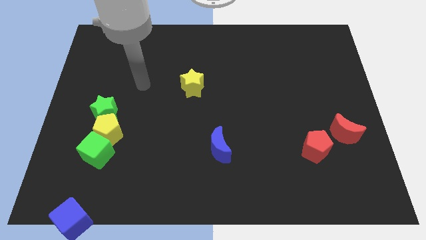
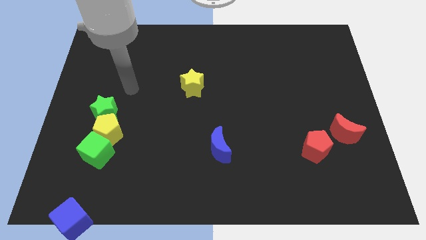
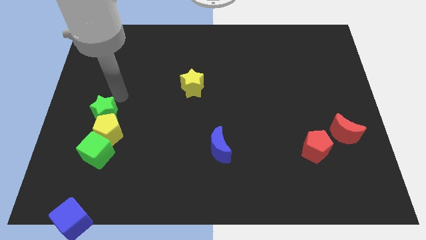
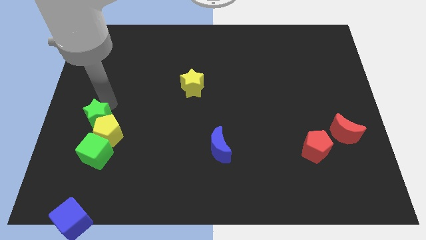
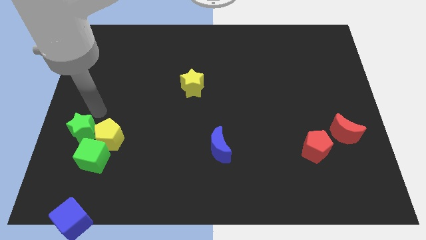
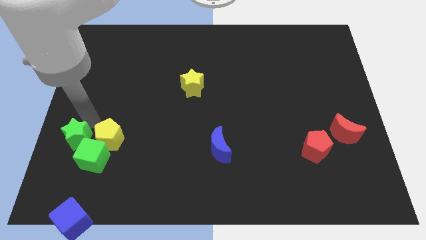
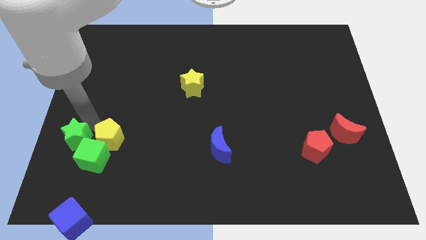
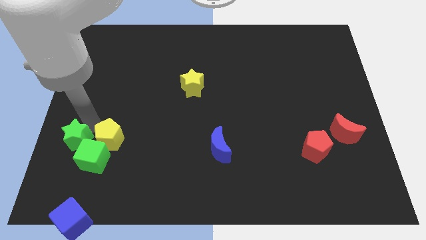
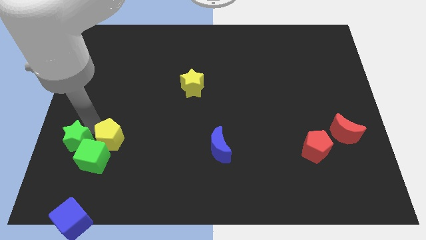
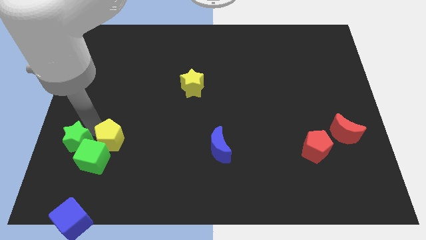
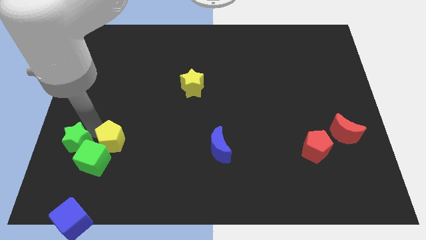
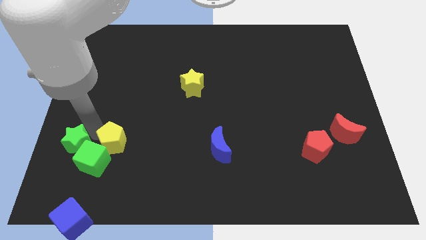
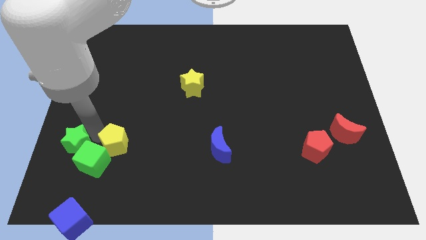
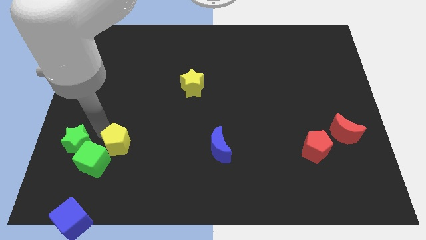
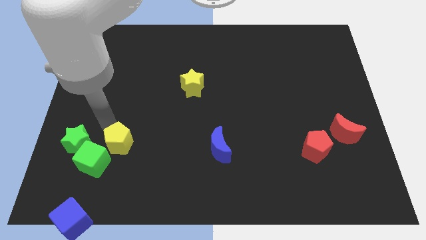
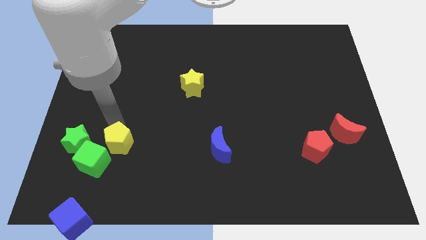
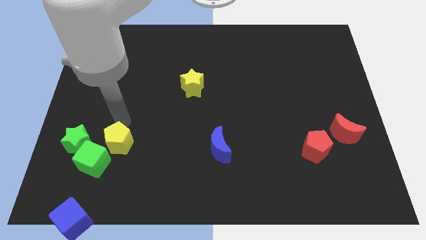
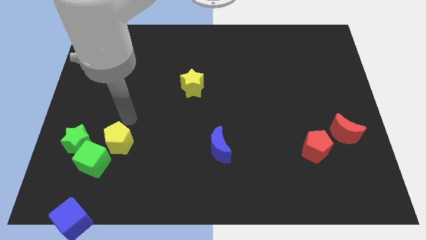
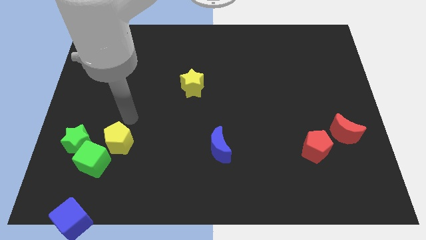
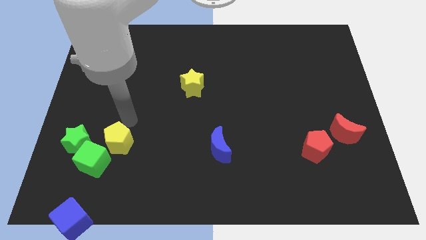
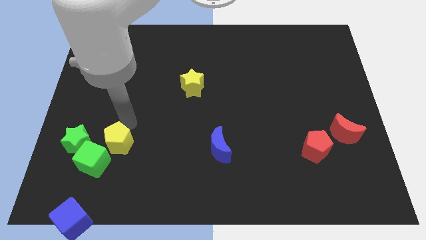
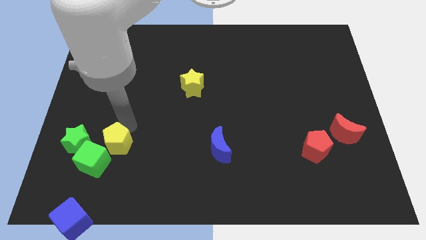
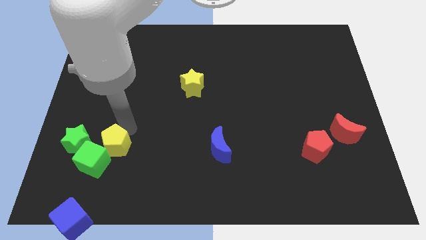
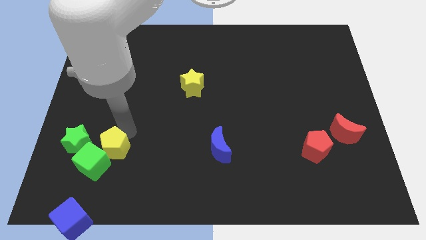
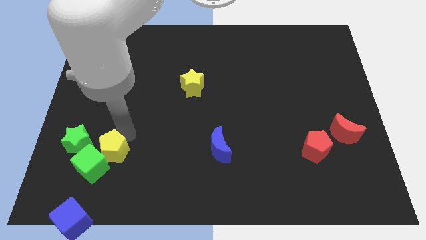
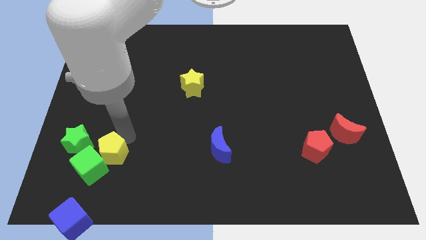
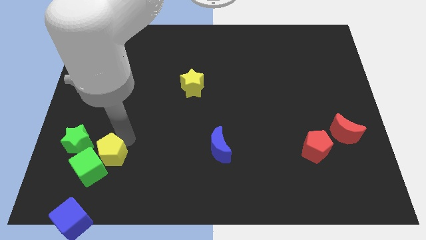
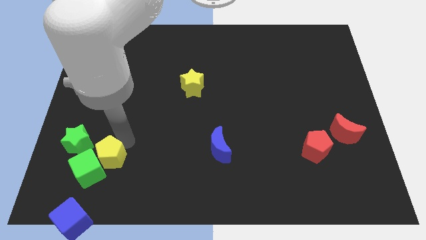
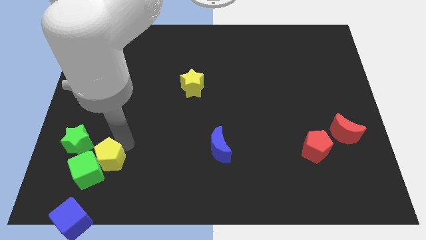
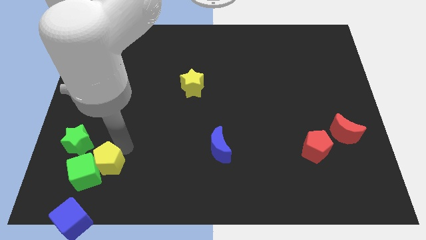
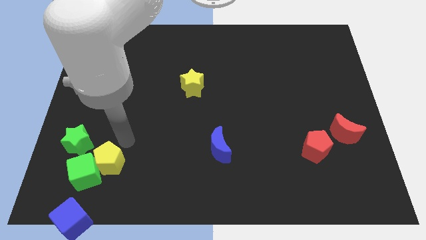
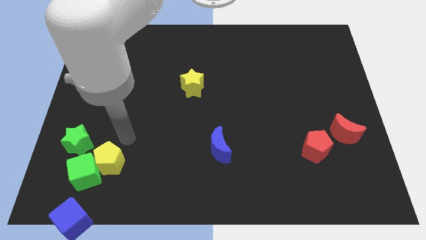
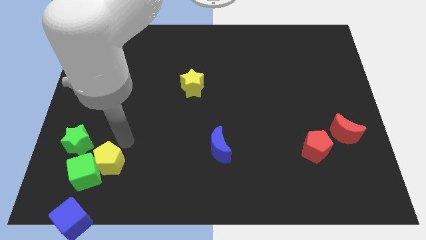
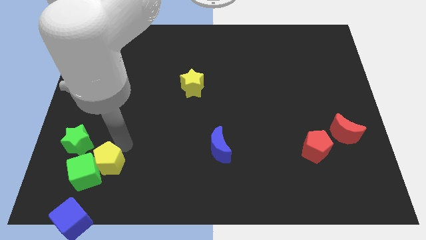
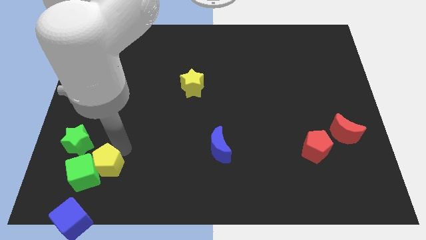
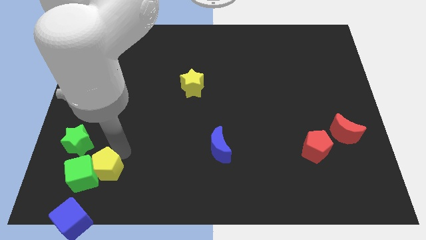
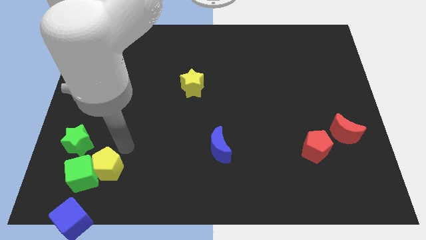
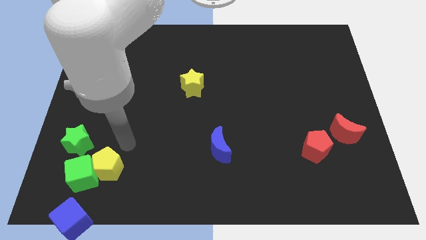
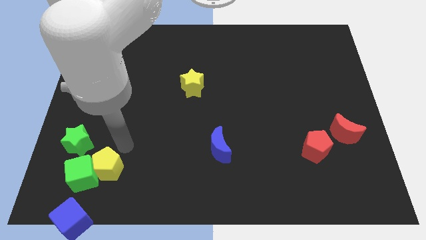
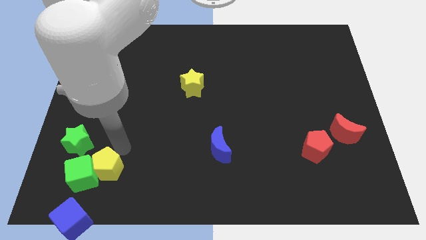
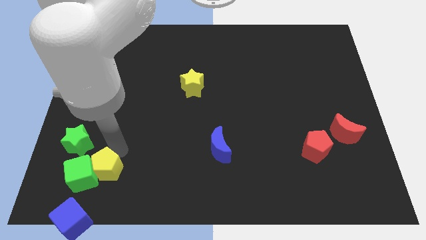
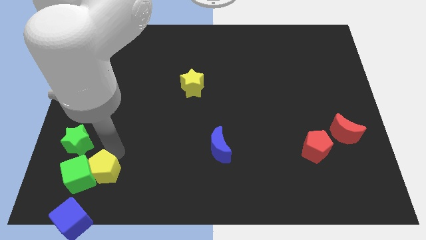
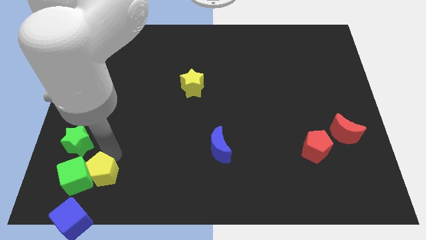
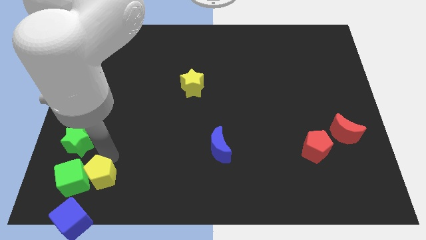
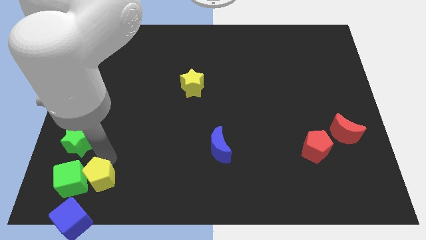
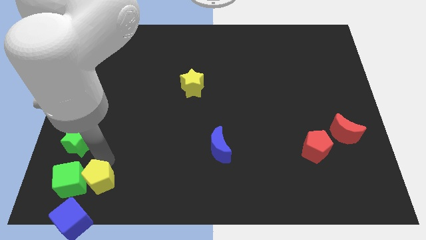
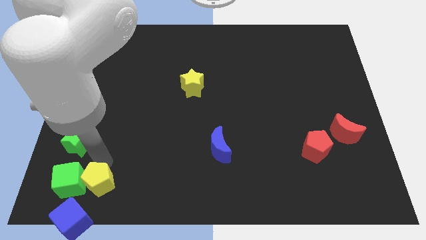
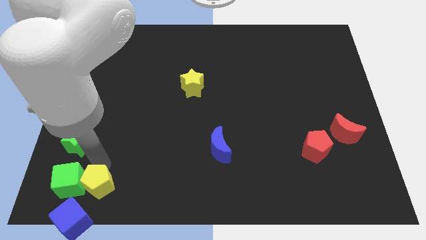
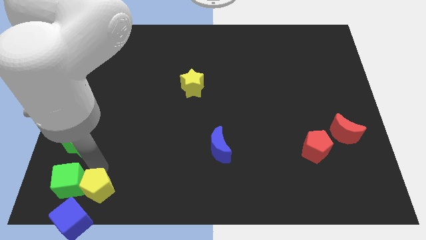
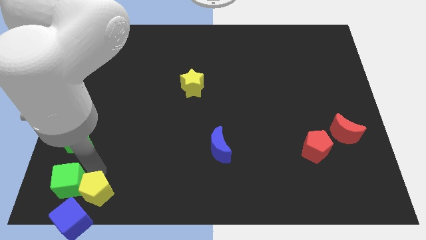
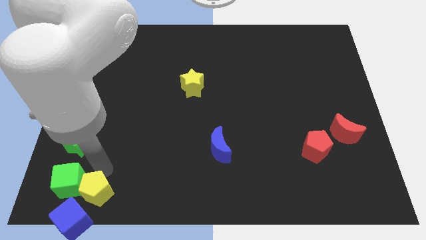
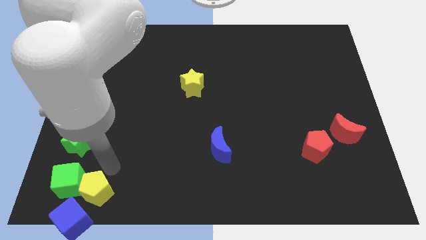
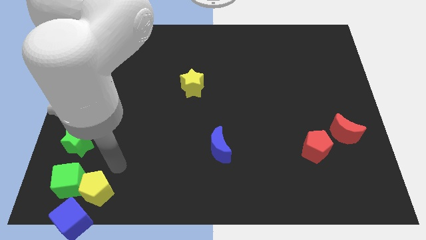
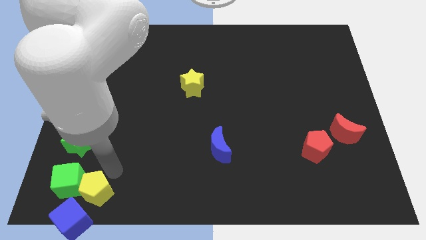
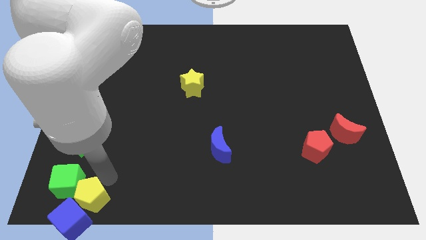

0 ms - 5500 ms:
slide the yellow pentagon towards the blue cube

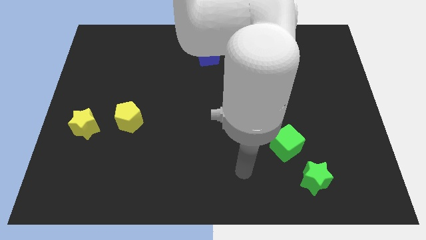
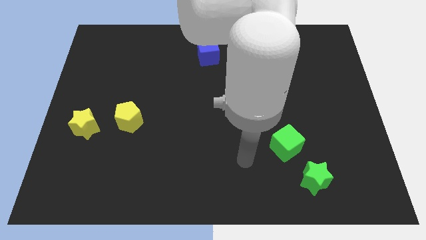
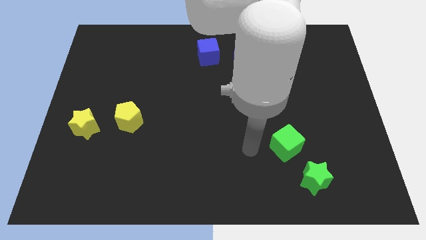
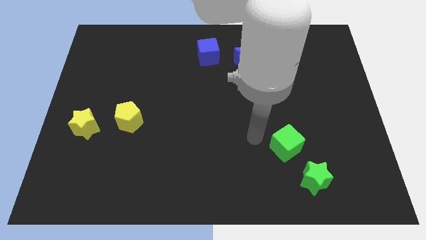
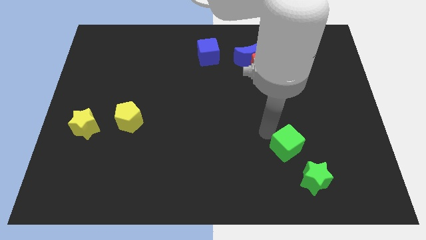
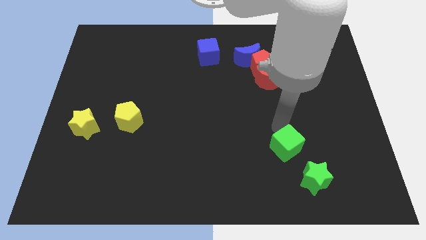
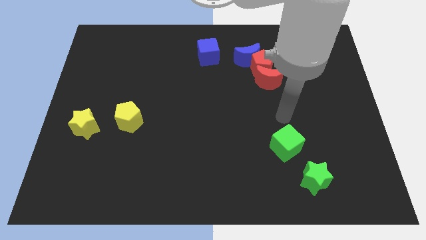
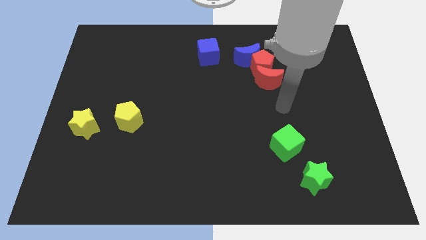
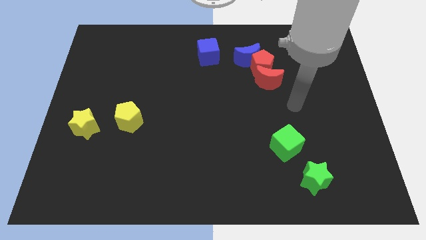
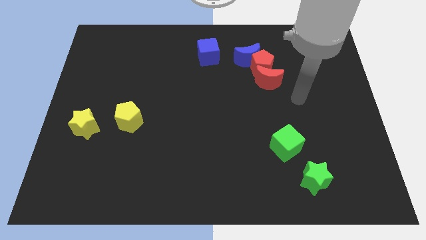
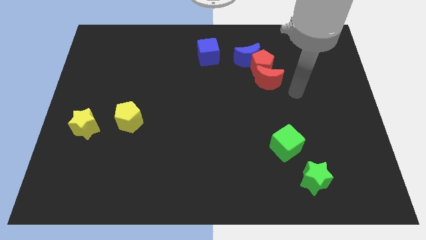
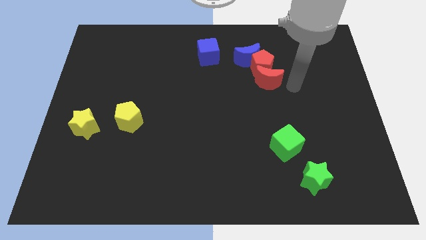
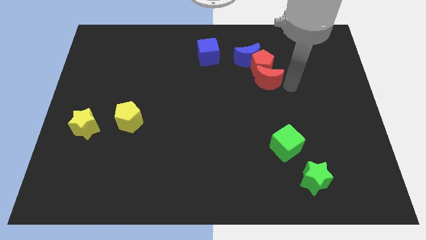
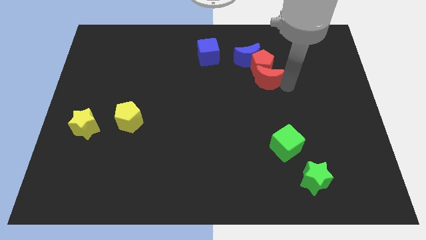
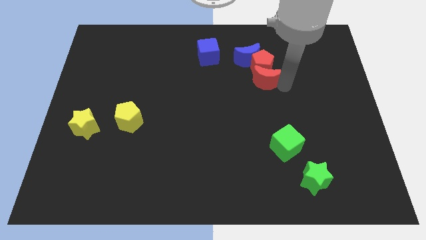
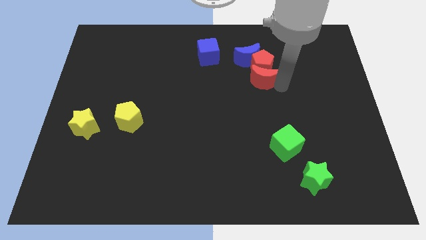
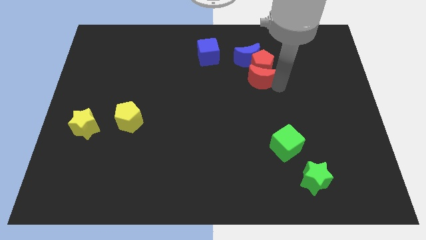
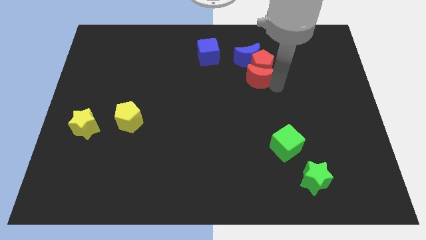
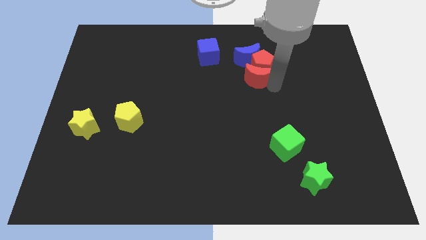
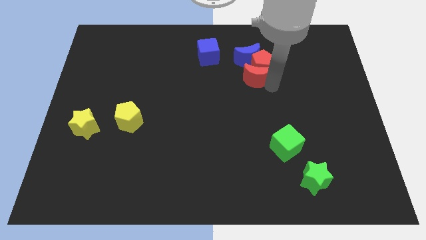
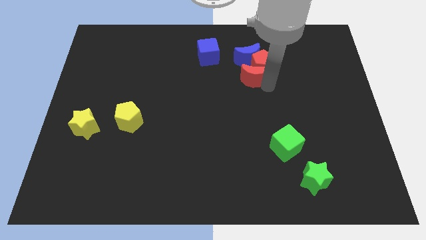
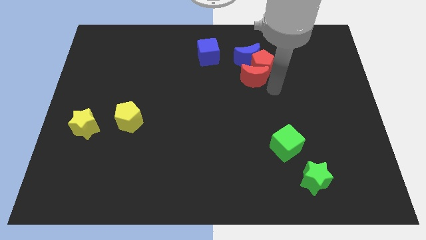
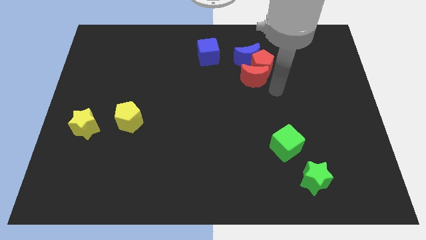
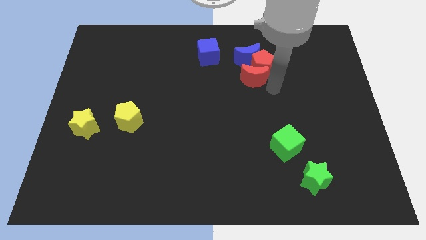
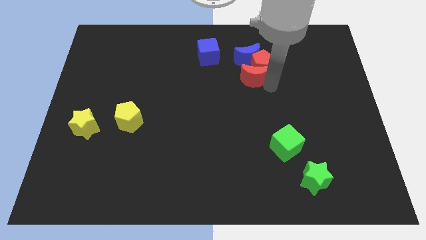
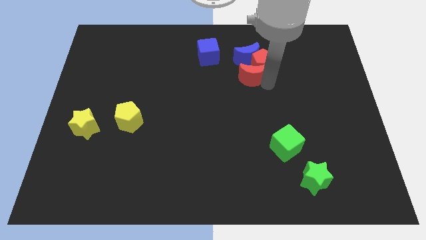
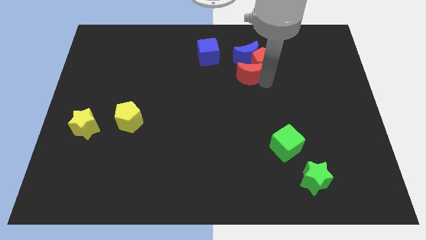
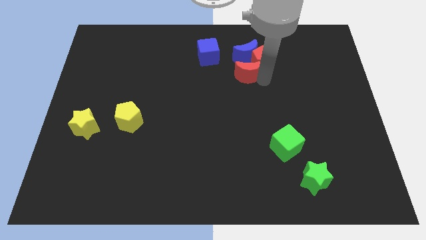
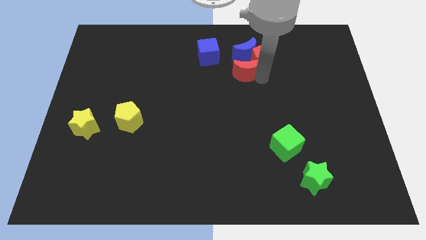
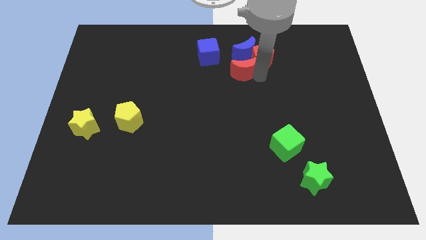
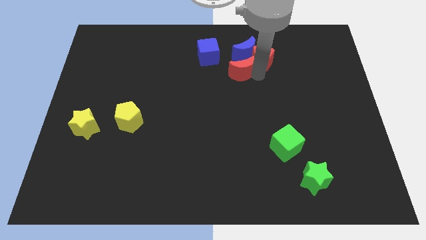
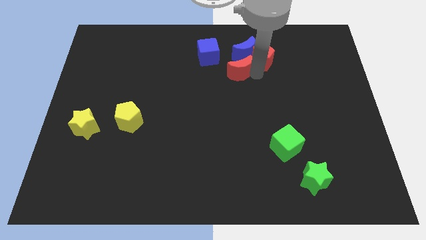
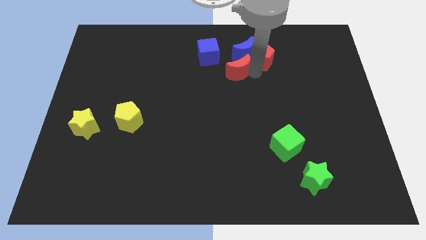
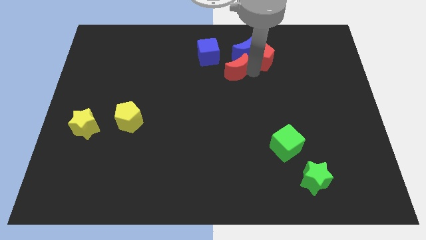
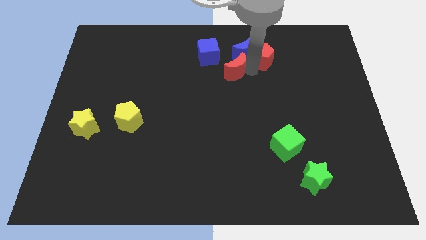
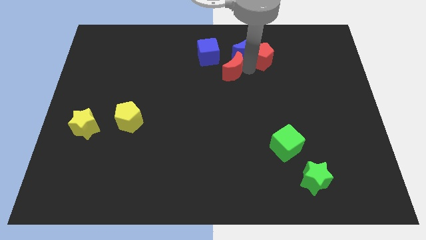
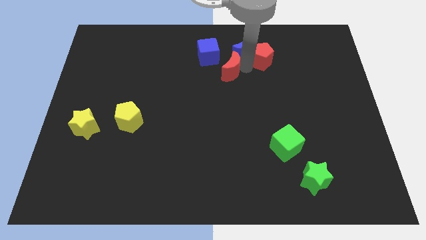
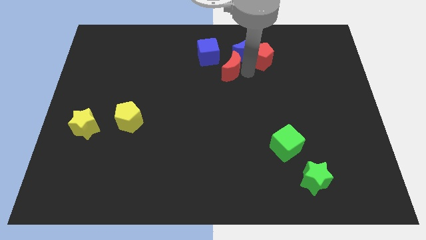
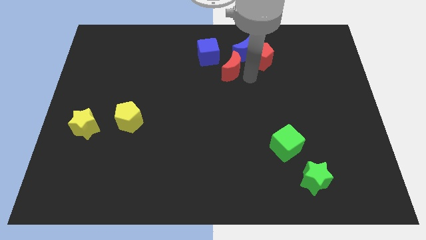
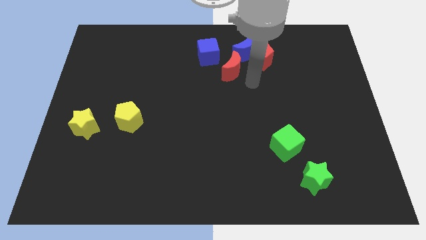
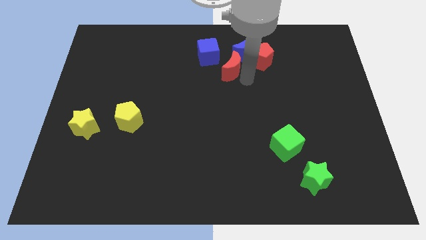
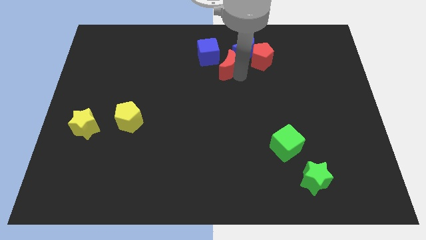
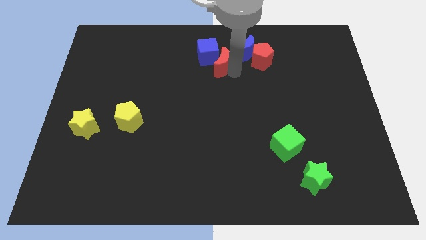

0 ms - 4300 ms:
slide the red moon next to the blue cube
